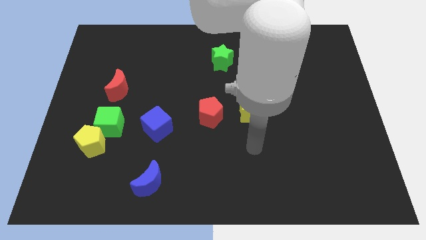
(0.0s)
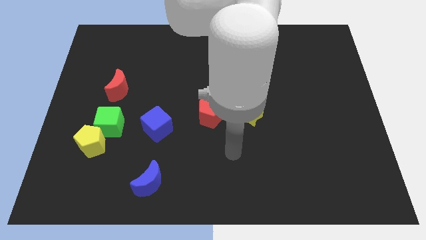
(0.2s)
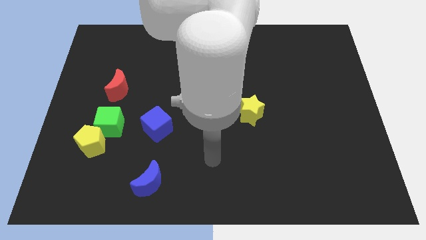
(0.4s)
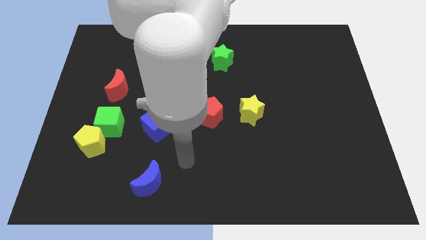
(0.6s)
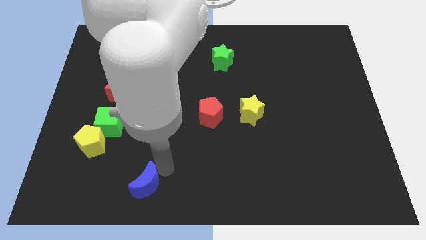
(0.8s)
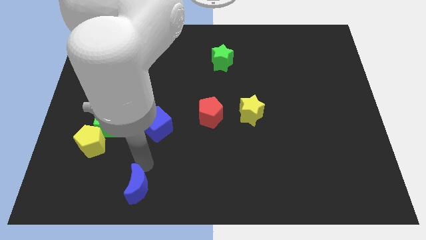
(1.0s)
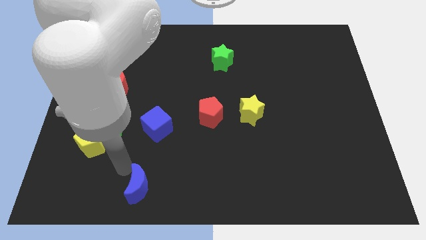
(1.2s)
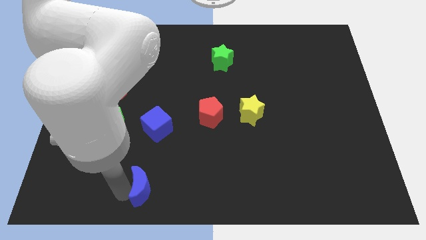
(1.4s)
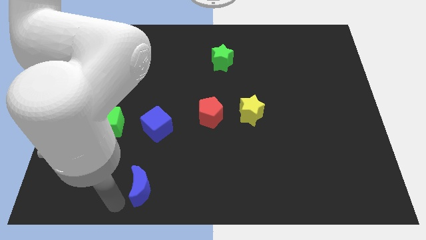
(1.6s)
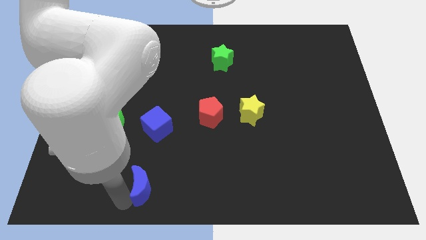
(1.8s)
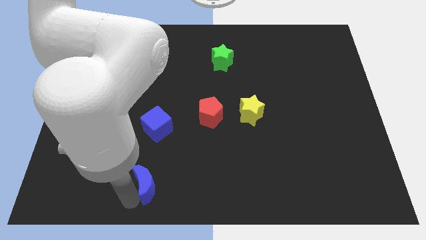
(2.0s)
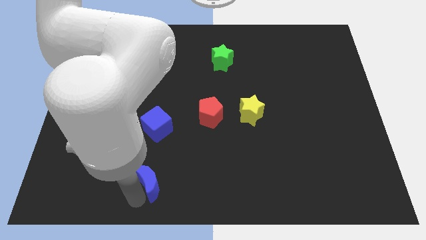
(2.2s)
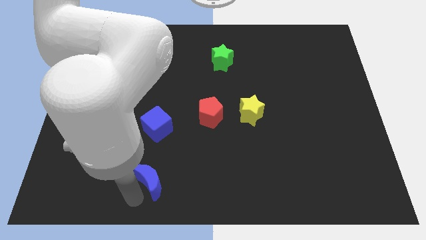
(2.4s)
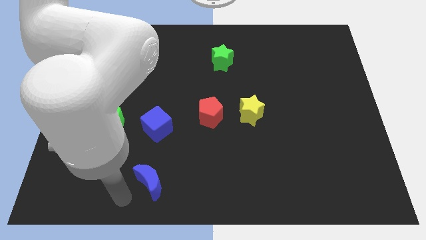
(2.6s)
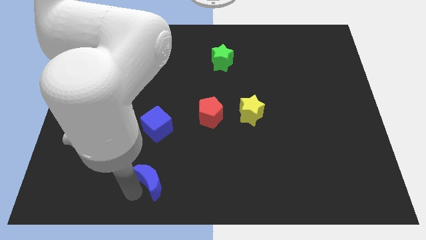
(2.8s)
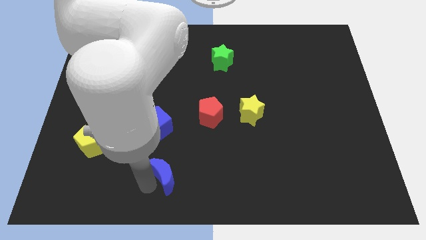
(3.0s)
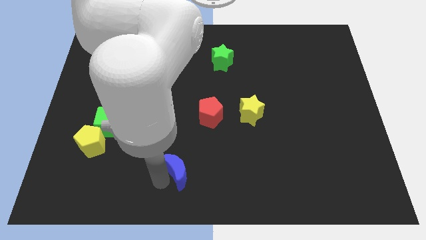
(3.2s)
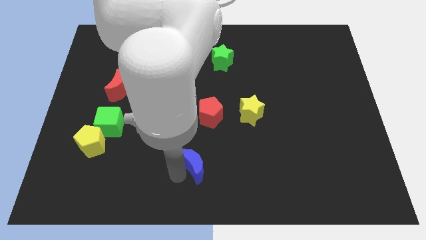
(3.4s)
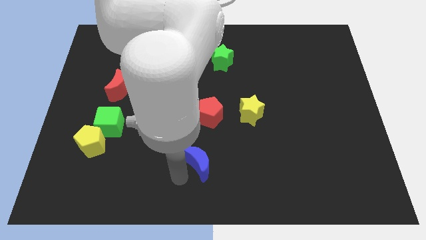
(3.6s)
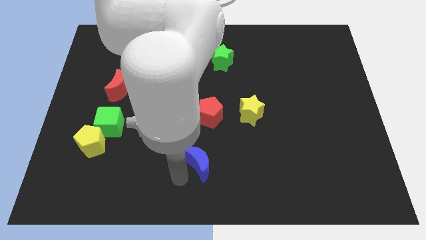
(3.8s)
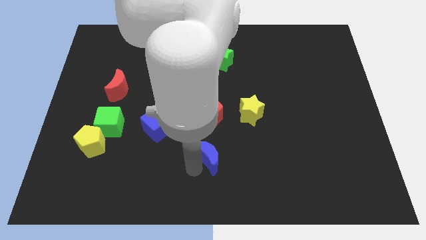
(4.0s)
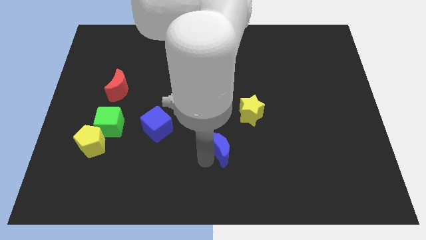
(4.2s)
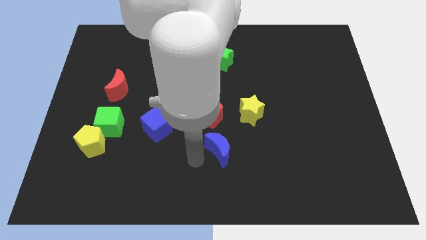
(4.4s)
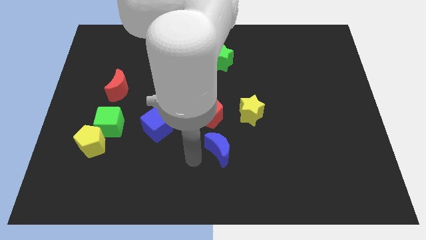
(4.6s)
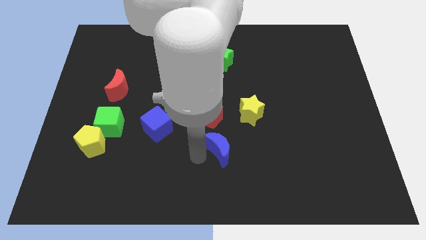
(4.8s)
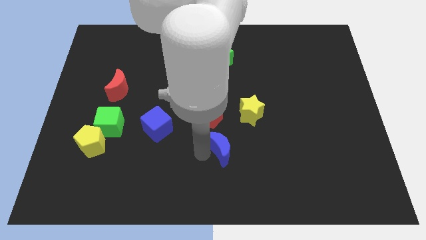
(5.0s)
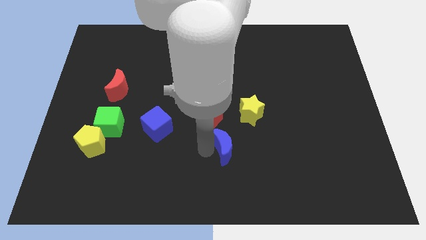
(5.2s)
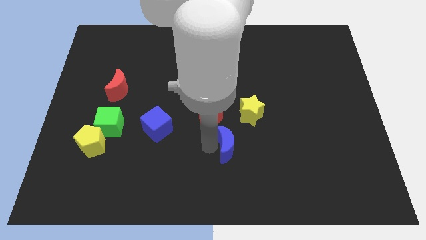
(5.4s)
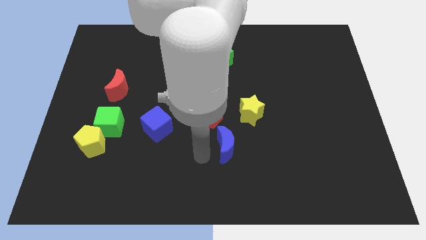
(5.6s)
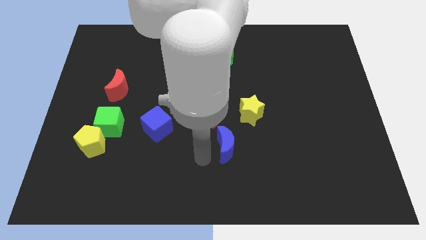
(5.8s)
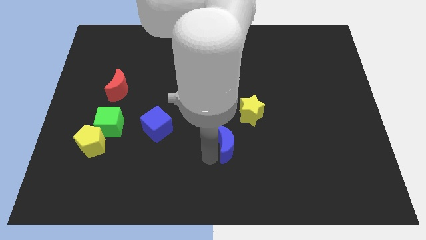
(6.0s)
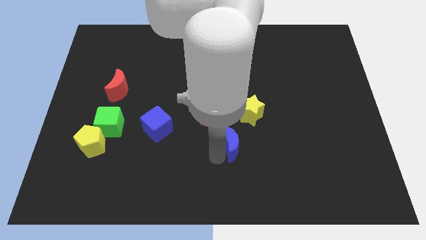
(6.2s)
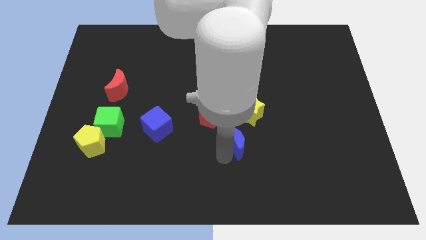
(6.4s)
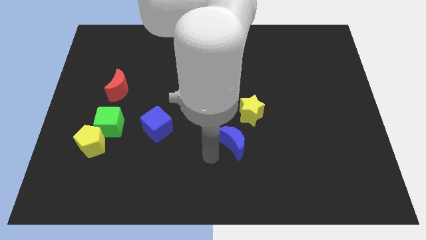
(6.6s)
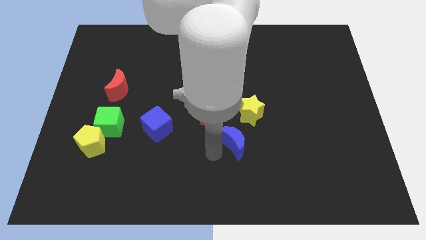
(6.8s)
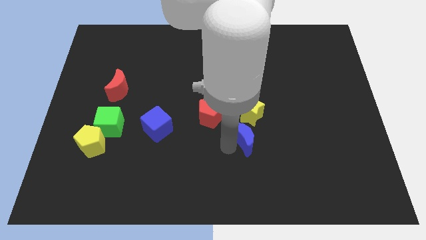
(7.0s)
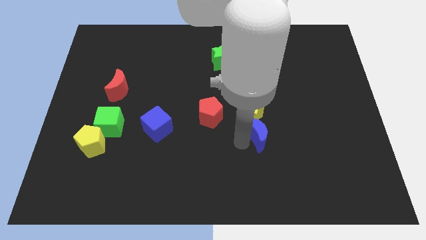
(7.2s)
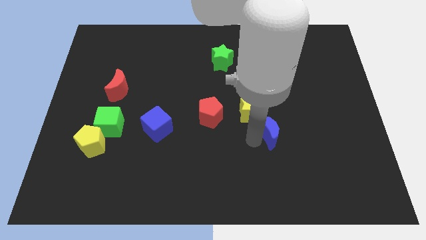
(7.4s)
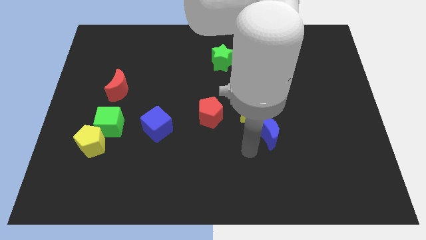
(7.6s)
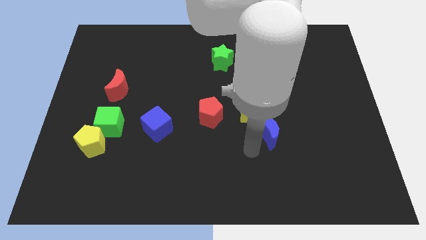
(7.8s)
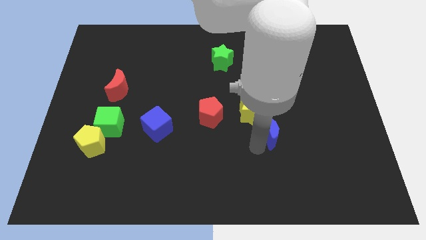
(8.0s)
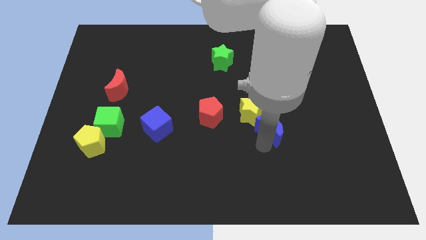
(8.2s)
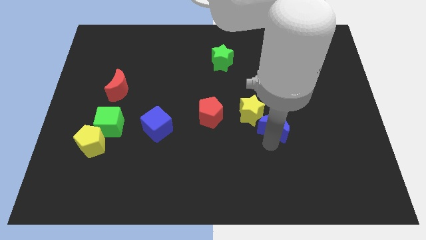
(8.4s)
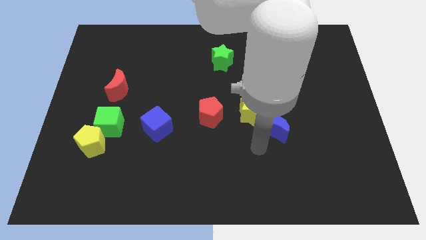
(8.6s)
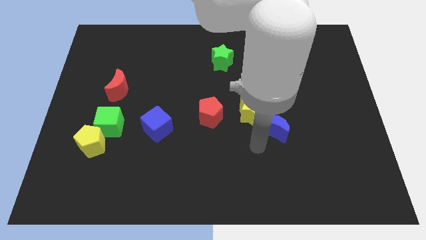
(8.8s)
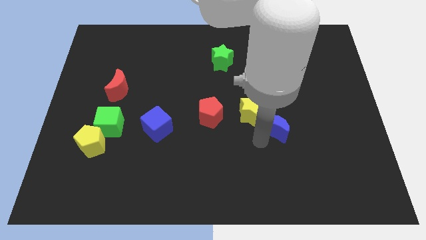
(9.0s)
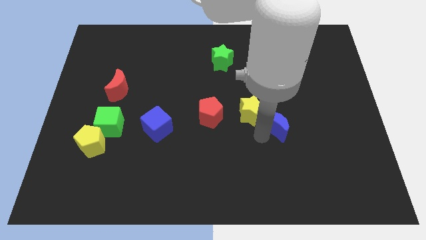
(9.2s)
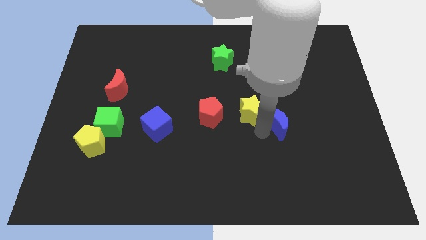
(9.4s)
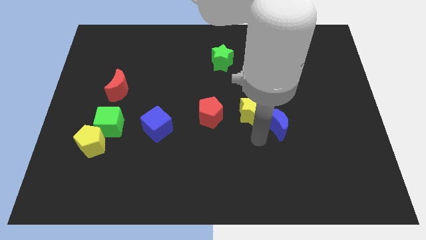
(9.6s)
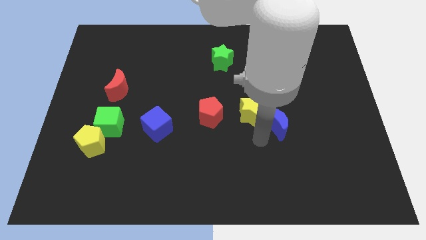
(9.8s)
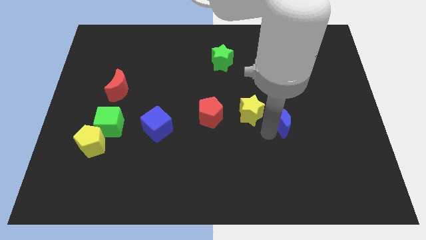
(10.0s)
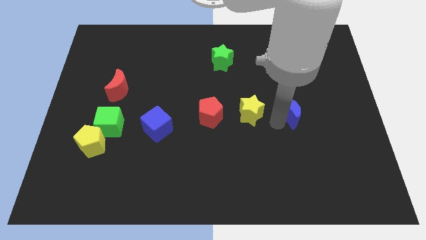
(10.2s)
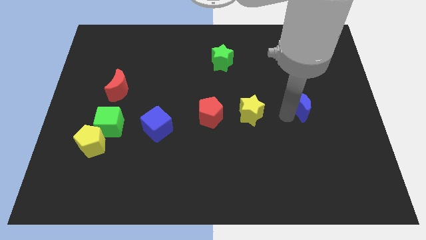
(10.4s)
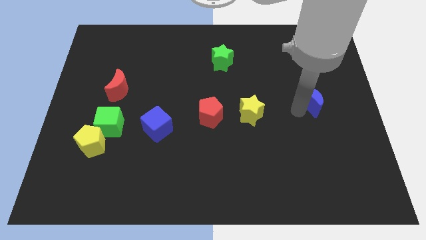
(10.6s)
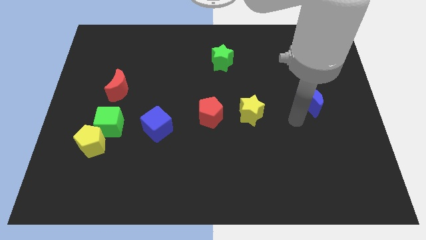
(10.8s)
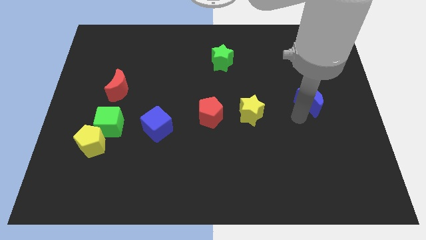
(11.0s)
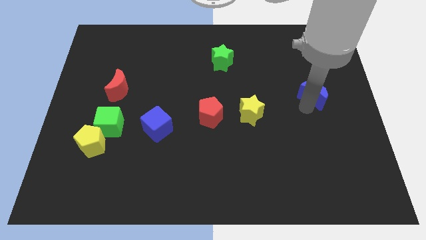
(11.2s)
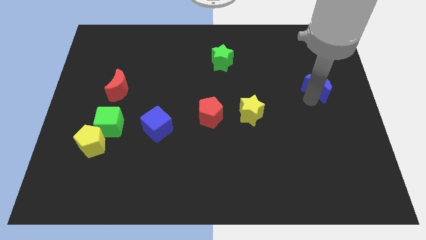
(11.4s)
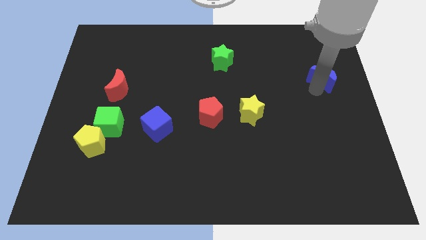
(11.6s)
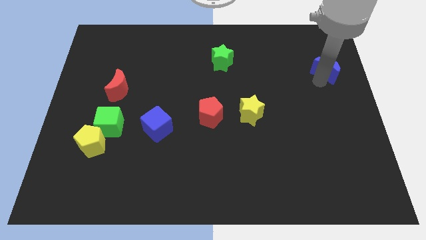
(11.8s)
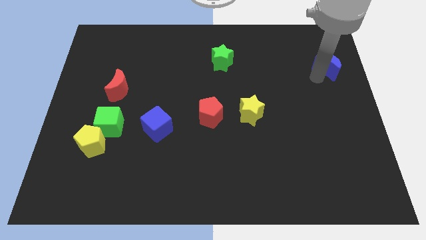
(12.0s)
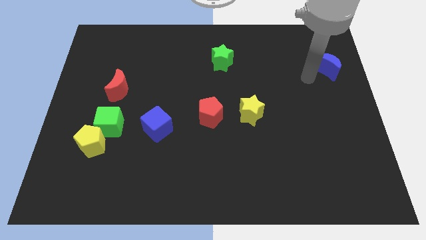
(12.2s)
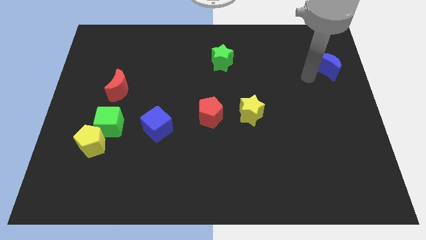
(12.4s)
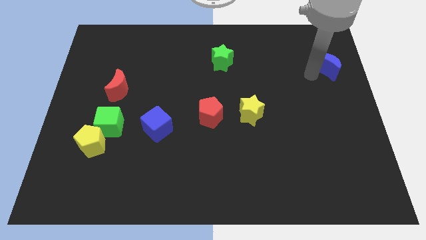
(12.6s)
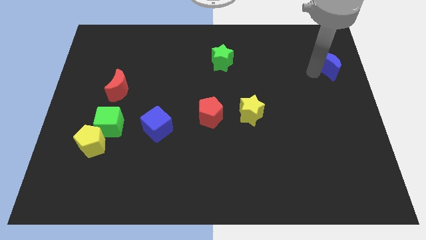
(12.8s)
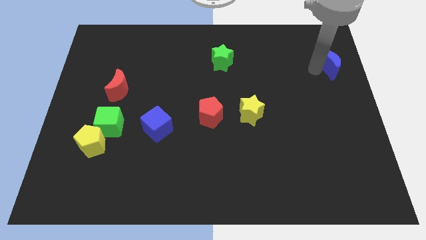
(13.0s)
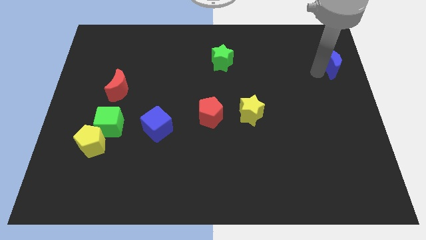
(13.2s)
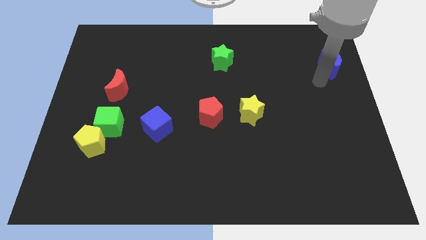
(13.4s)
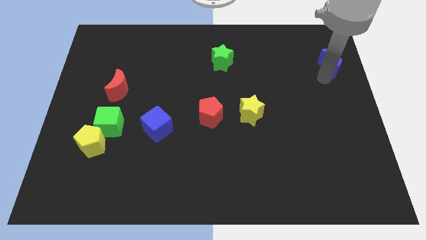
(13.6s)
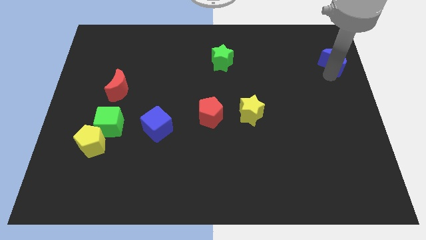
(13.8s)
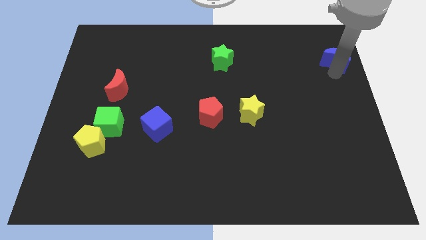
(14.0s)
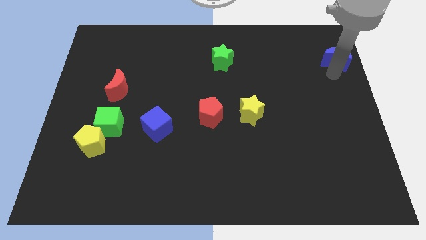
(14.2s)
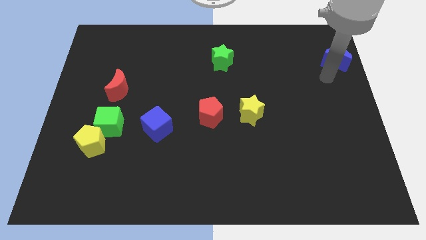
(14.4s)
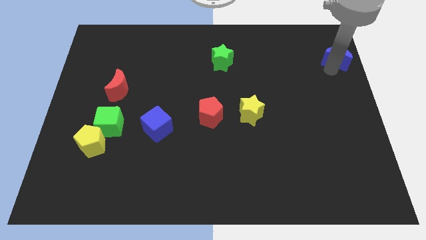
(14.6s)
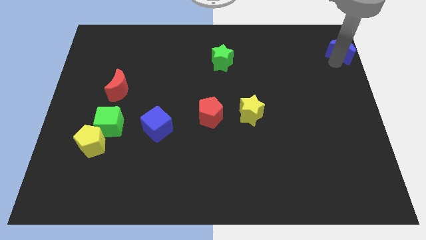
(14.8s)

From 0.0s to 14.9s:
put the blue moon to the upper right corner

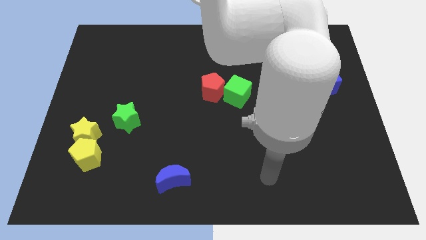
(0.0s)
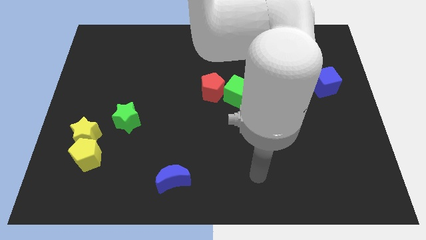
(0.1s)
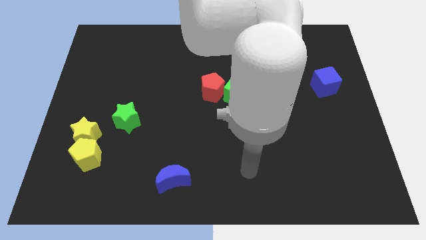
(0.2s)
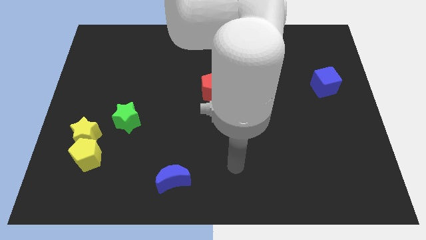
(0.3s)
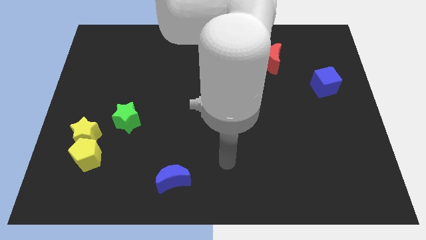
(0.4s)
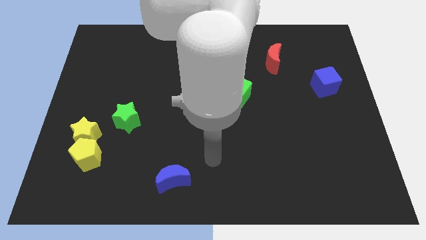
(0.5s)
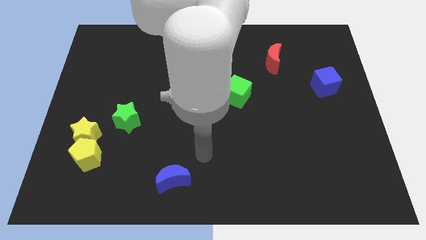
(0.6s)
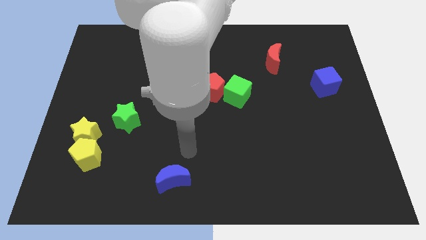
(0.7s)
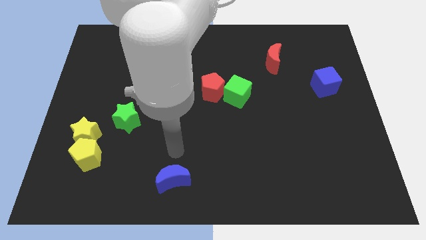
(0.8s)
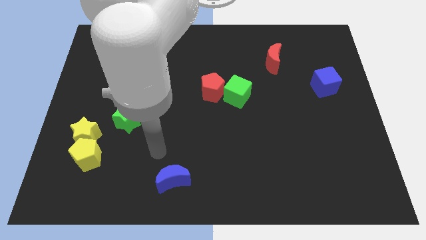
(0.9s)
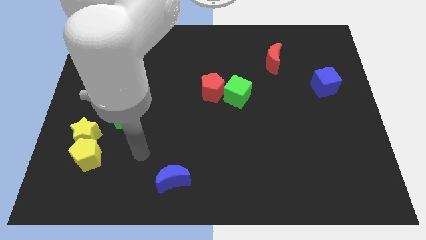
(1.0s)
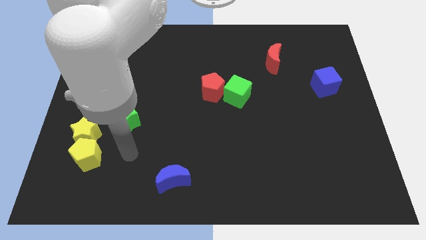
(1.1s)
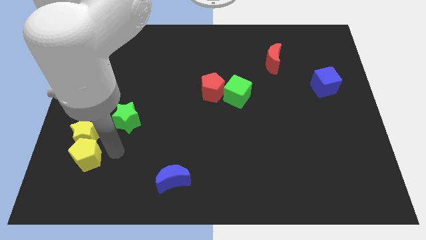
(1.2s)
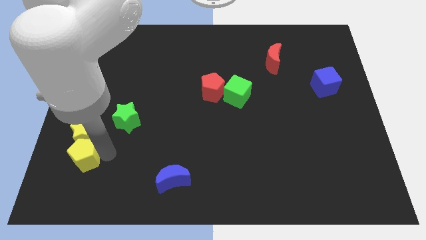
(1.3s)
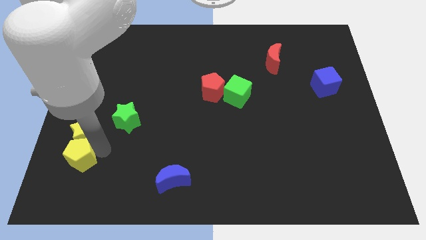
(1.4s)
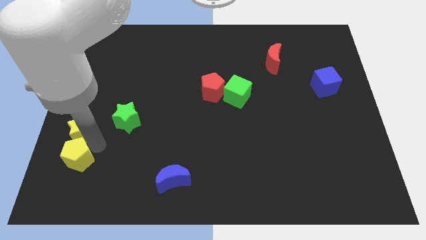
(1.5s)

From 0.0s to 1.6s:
put the yellow star to the left side
